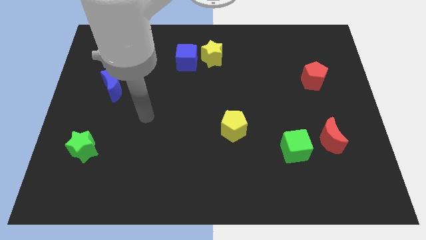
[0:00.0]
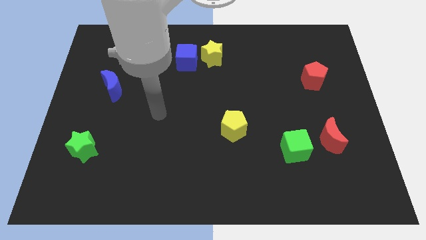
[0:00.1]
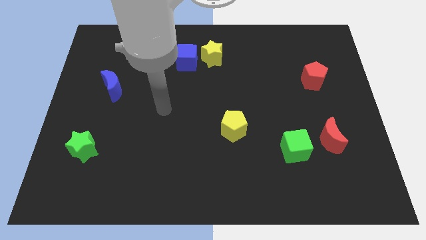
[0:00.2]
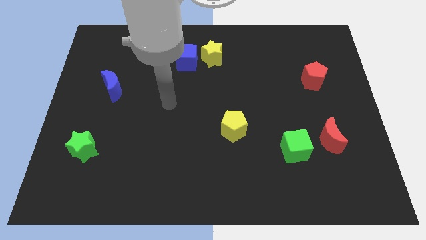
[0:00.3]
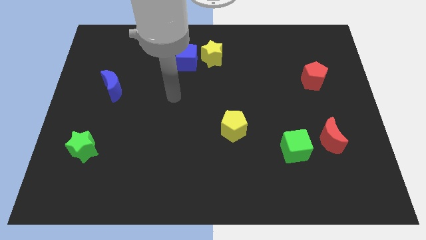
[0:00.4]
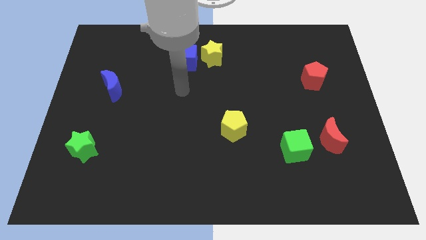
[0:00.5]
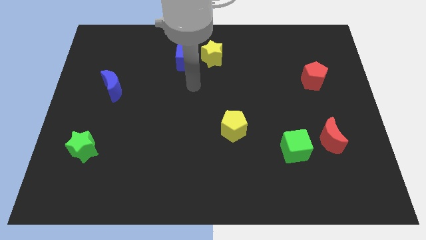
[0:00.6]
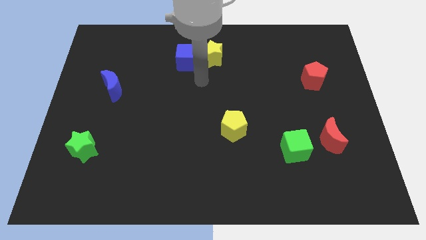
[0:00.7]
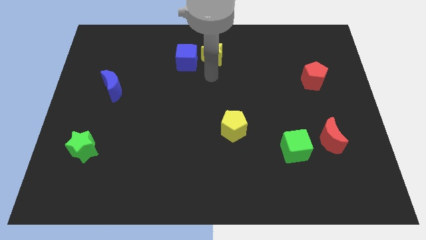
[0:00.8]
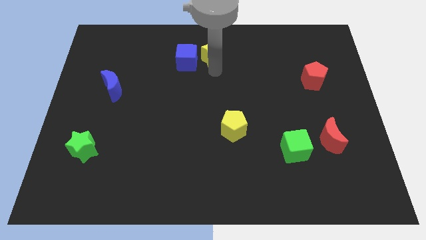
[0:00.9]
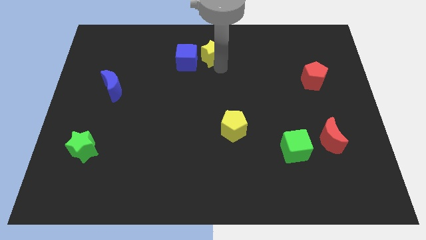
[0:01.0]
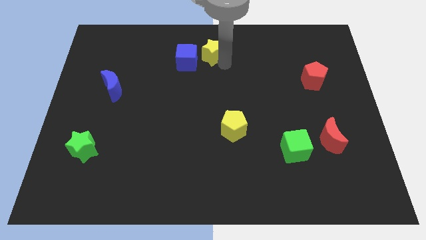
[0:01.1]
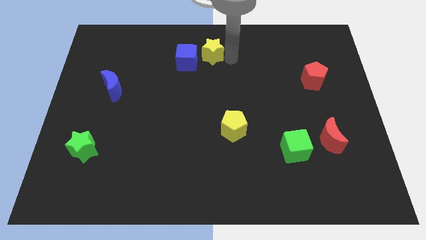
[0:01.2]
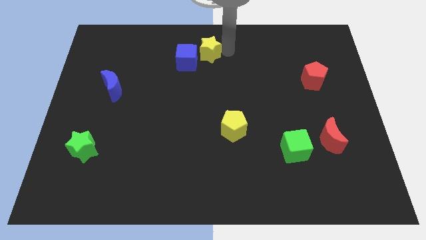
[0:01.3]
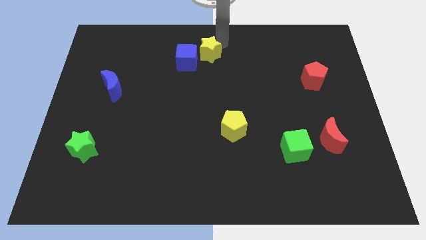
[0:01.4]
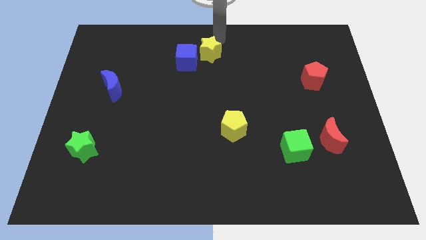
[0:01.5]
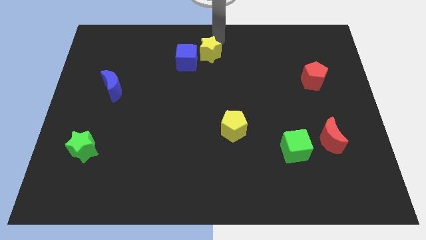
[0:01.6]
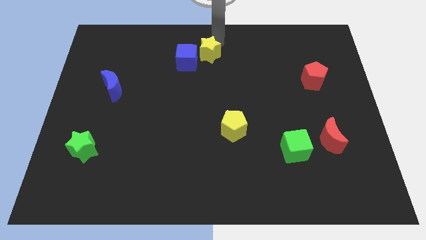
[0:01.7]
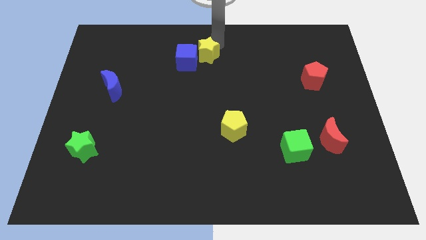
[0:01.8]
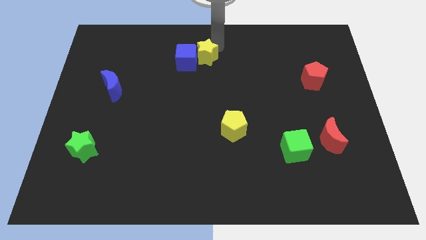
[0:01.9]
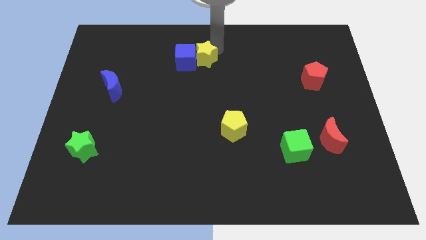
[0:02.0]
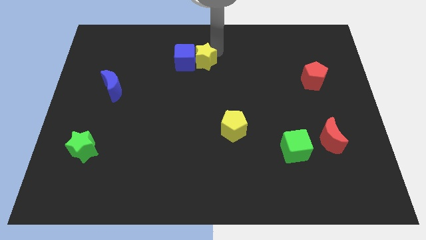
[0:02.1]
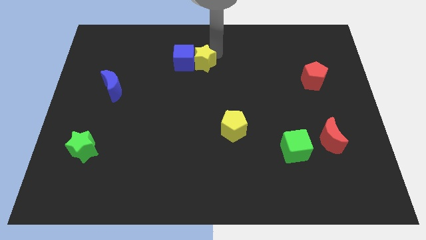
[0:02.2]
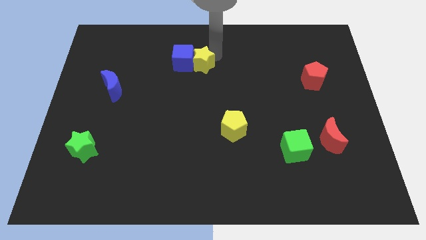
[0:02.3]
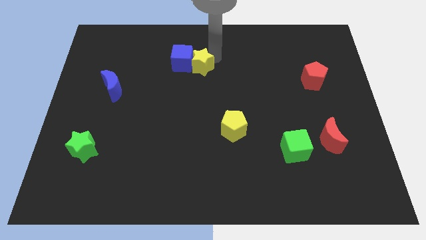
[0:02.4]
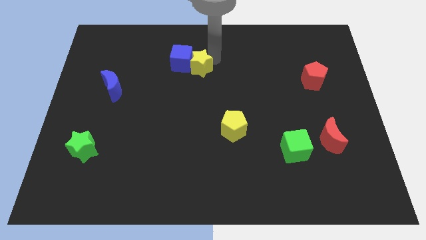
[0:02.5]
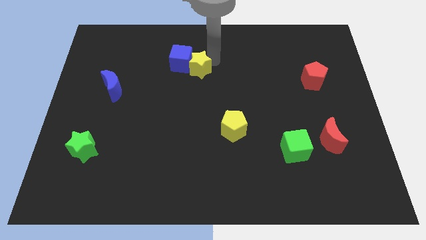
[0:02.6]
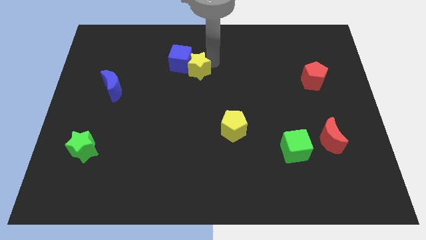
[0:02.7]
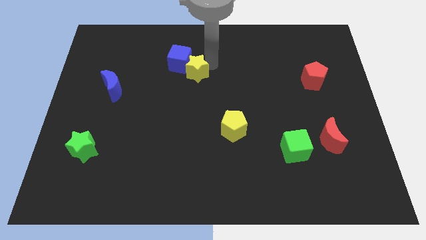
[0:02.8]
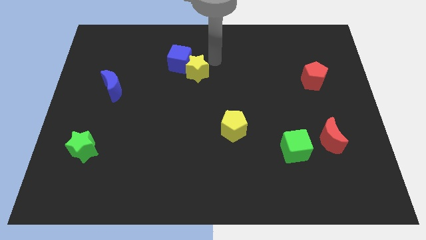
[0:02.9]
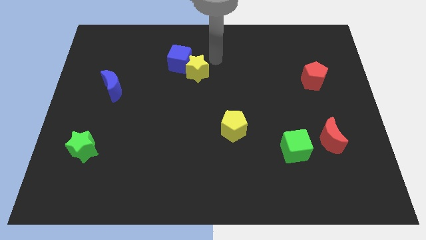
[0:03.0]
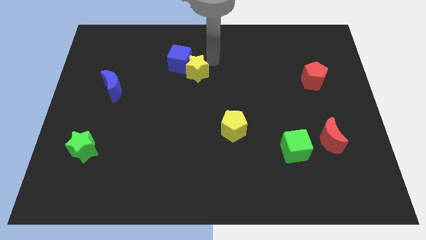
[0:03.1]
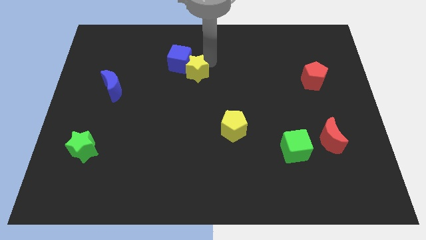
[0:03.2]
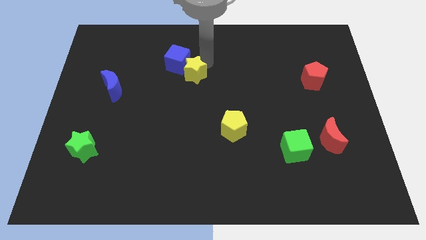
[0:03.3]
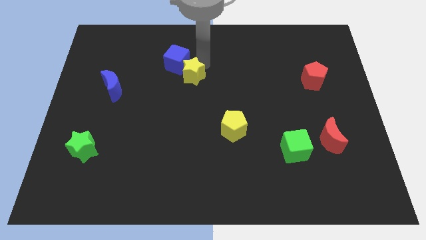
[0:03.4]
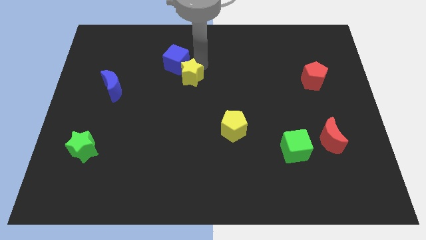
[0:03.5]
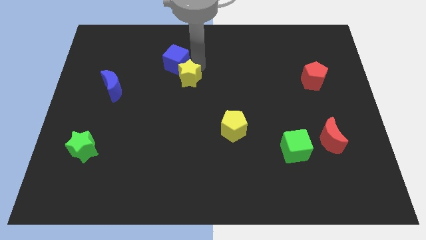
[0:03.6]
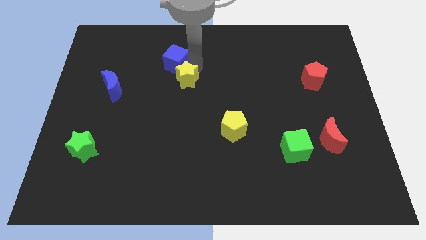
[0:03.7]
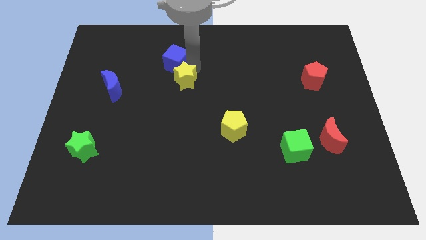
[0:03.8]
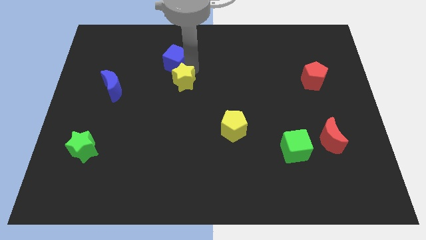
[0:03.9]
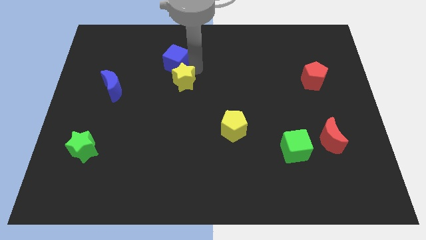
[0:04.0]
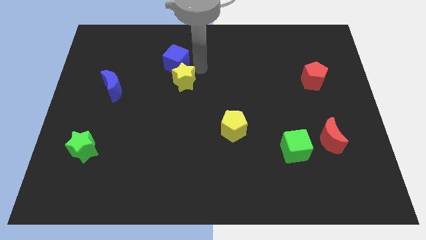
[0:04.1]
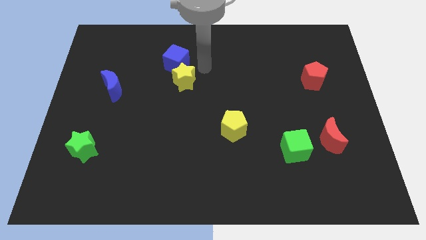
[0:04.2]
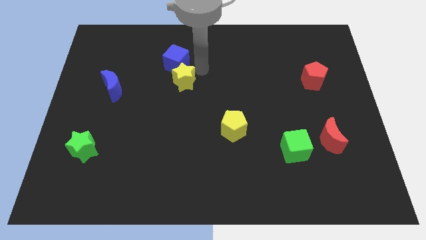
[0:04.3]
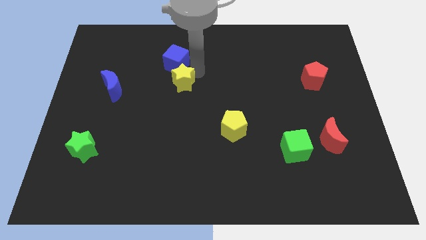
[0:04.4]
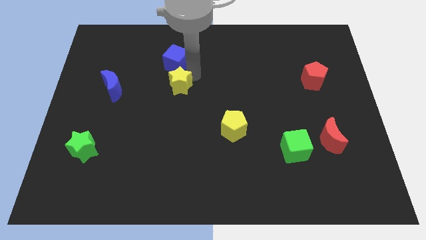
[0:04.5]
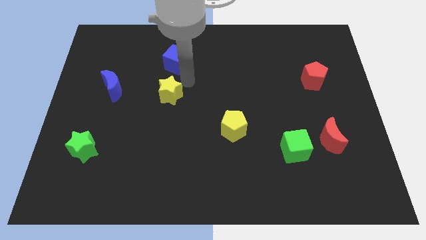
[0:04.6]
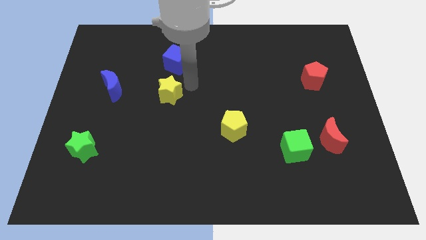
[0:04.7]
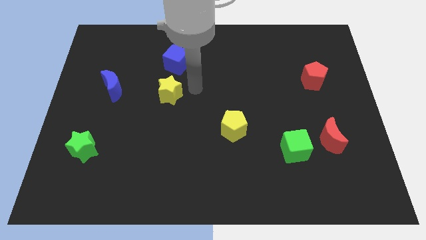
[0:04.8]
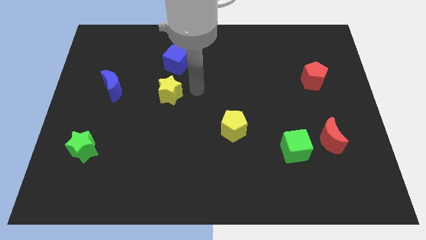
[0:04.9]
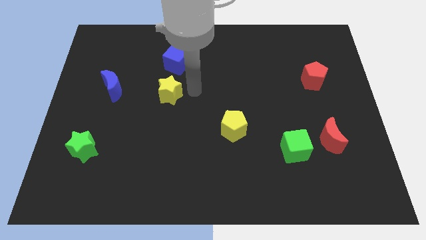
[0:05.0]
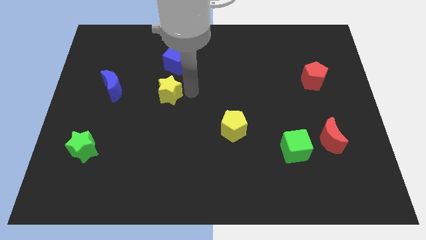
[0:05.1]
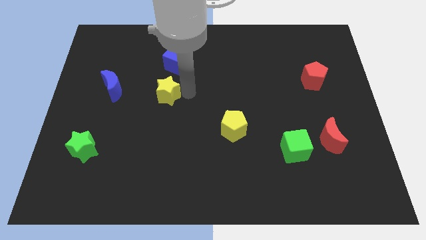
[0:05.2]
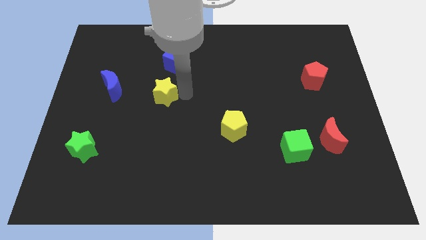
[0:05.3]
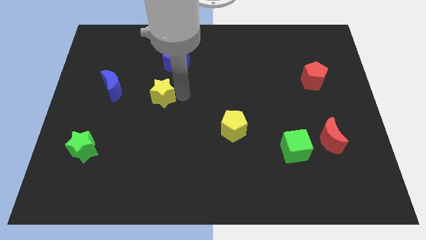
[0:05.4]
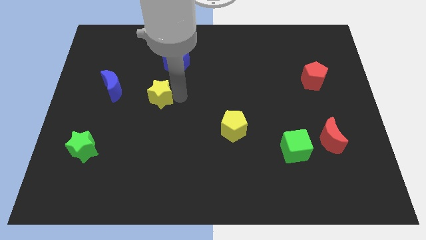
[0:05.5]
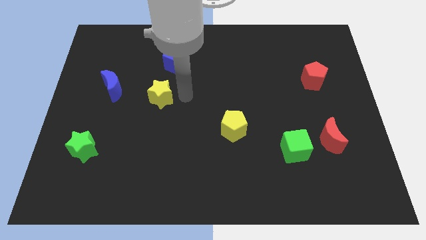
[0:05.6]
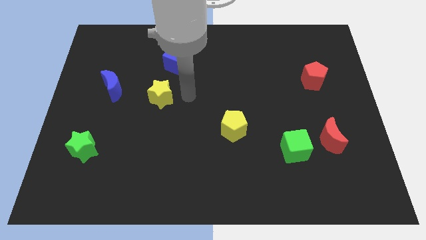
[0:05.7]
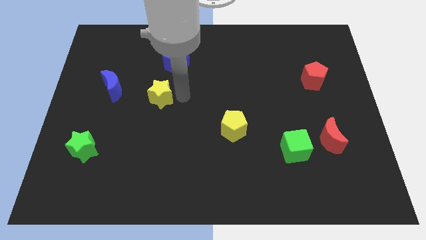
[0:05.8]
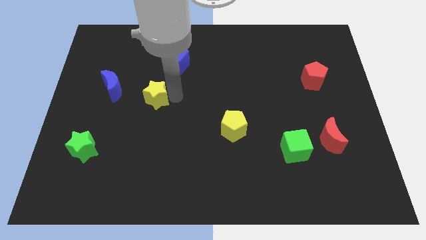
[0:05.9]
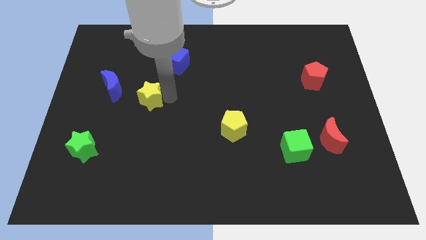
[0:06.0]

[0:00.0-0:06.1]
move the yellow star down and left diagonally

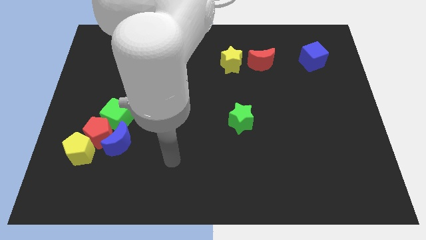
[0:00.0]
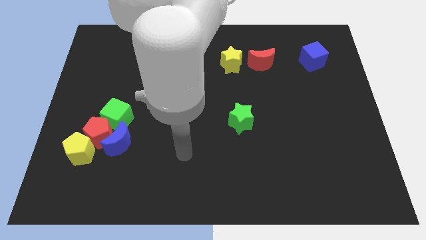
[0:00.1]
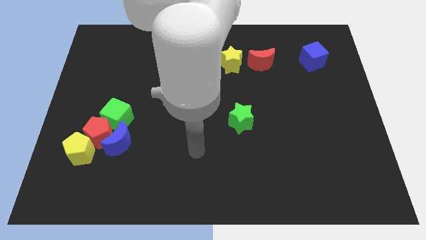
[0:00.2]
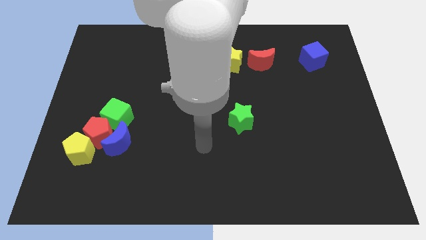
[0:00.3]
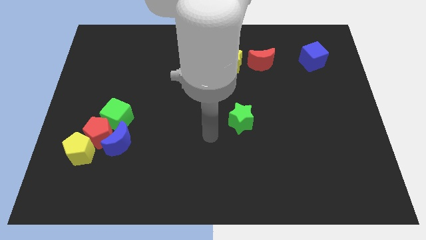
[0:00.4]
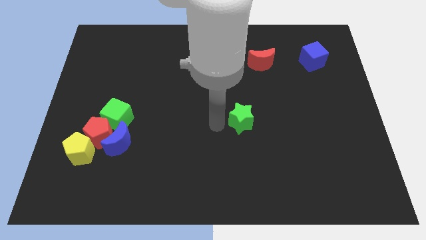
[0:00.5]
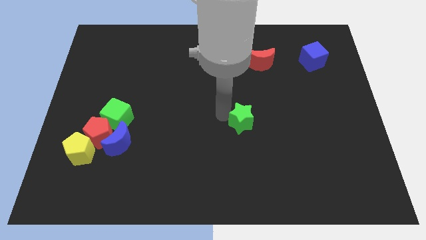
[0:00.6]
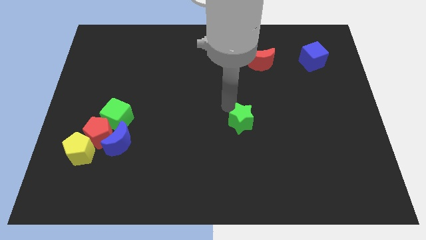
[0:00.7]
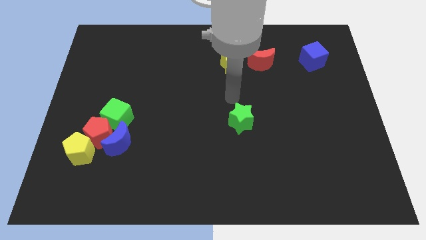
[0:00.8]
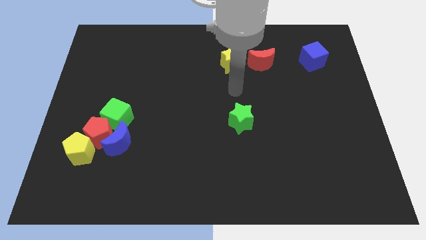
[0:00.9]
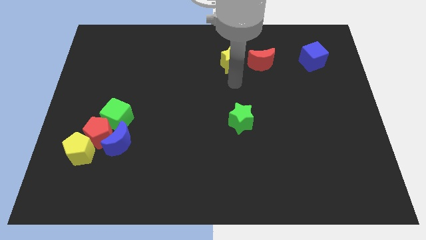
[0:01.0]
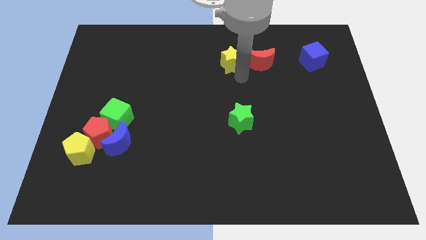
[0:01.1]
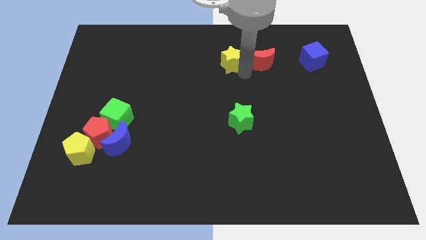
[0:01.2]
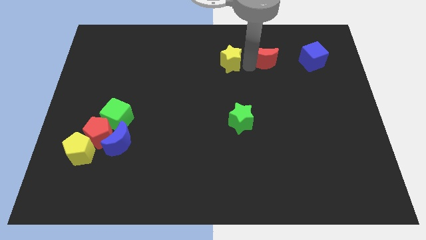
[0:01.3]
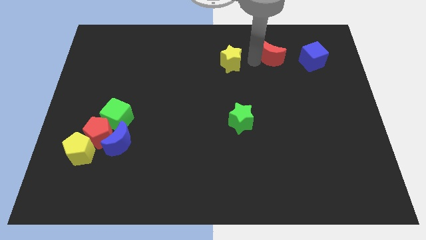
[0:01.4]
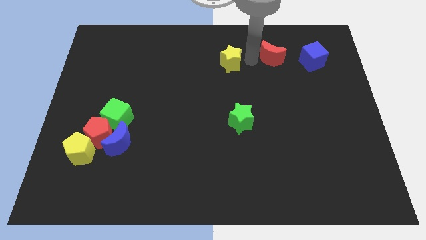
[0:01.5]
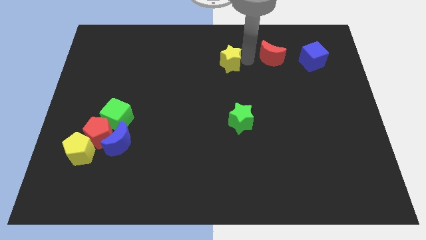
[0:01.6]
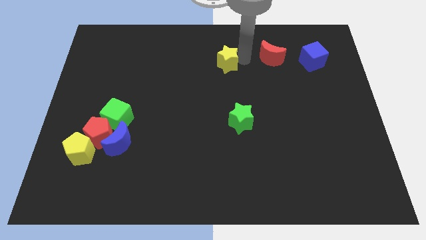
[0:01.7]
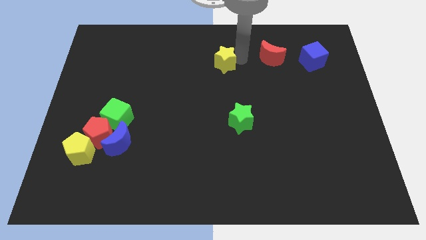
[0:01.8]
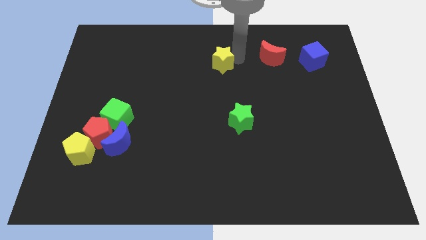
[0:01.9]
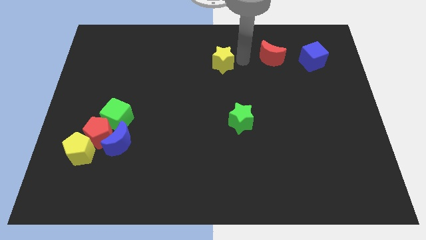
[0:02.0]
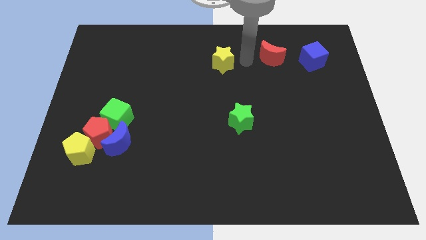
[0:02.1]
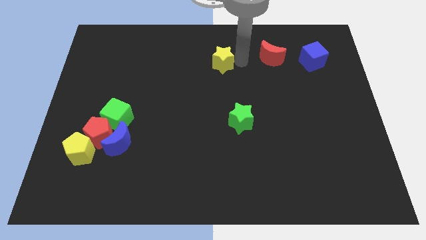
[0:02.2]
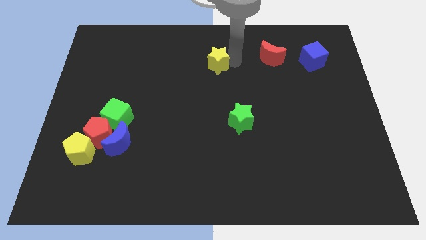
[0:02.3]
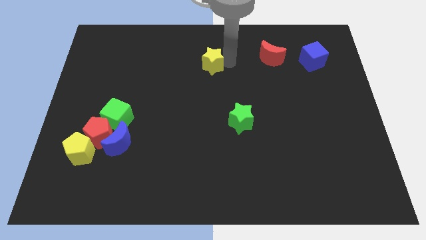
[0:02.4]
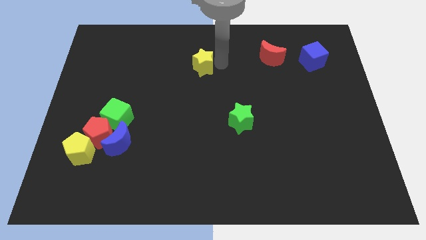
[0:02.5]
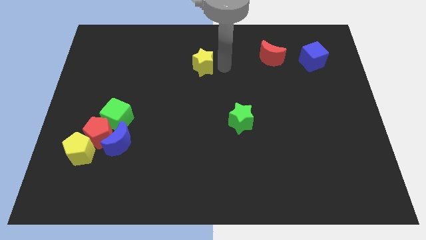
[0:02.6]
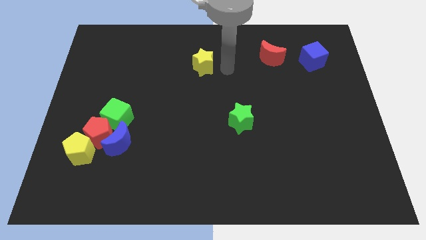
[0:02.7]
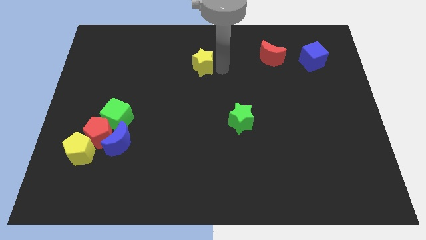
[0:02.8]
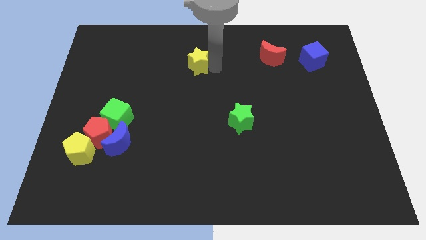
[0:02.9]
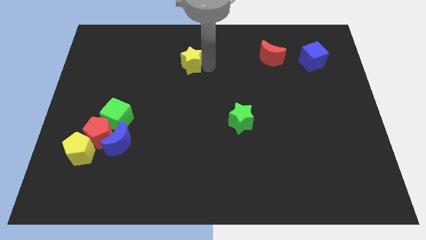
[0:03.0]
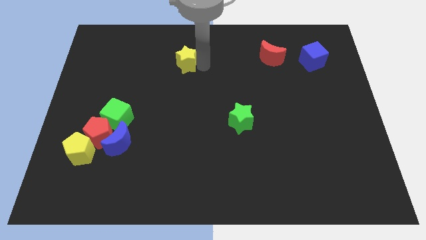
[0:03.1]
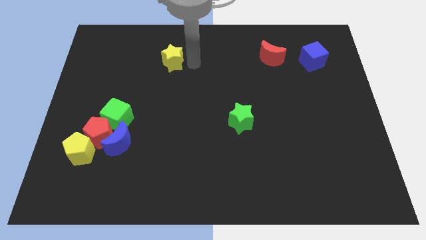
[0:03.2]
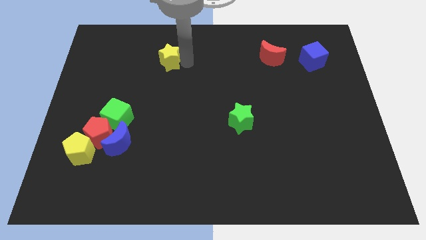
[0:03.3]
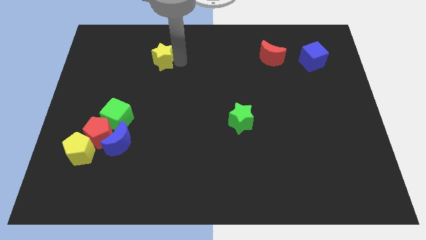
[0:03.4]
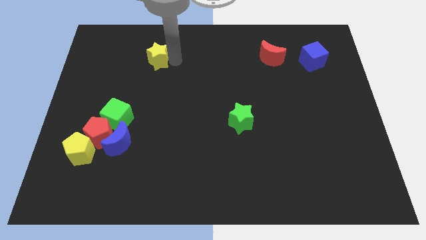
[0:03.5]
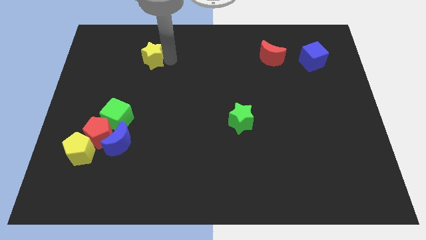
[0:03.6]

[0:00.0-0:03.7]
push the yellow star to the left
